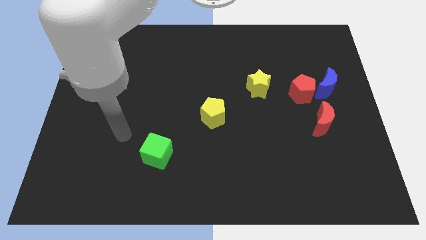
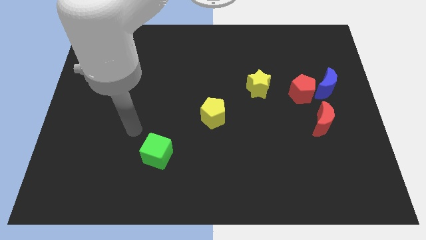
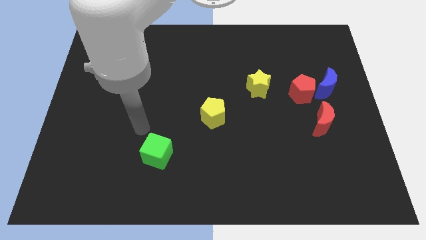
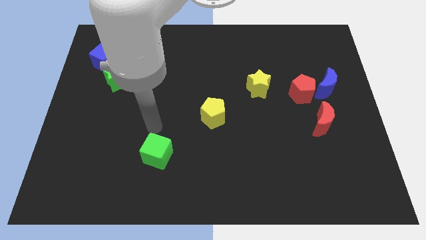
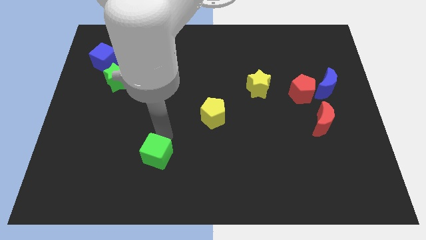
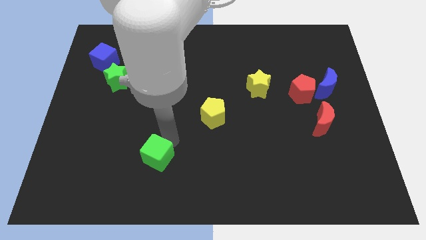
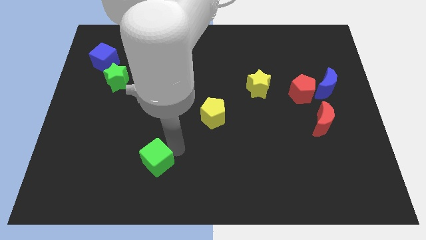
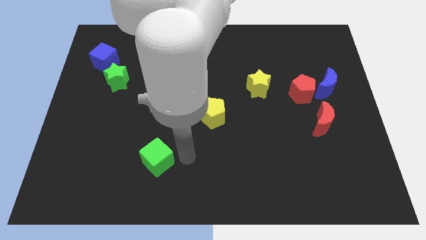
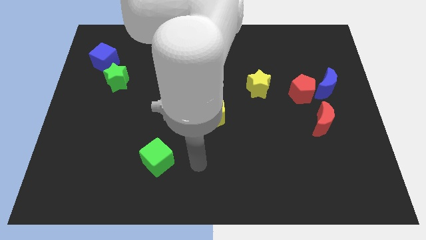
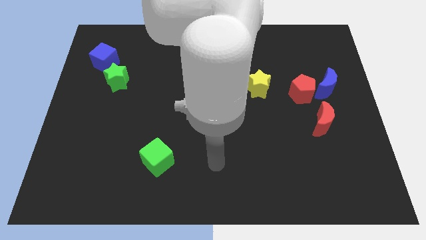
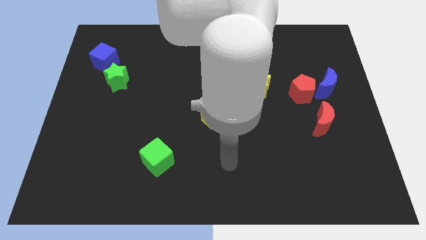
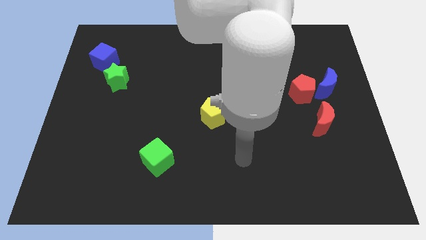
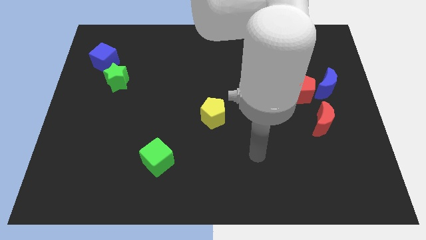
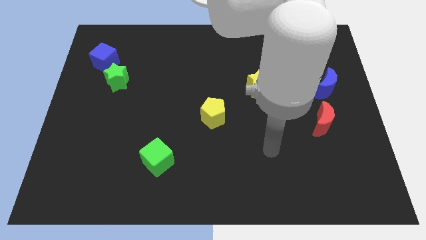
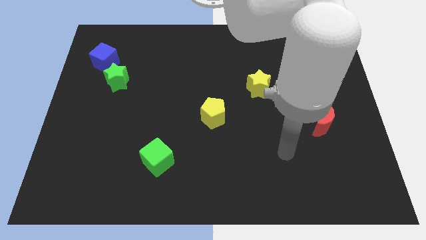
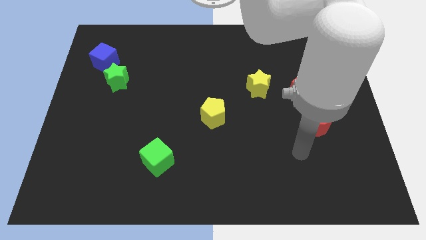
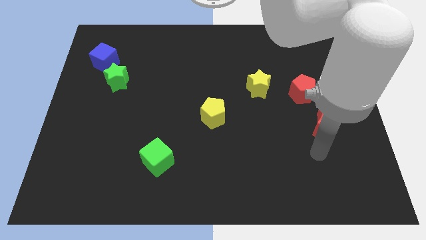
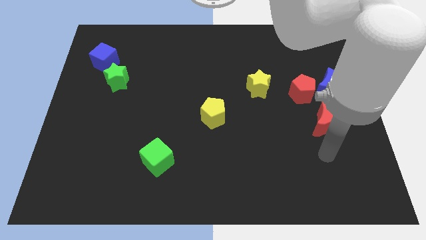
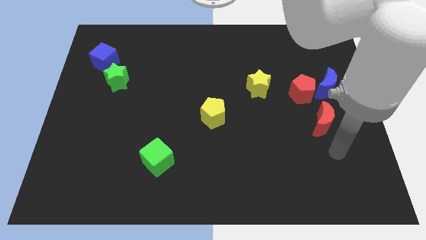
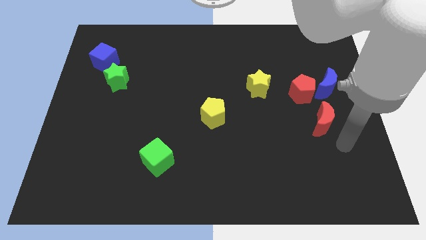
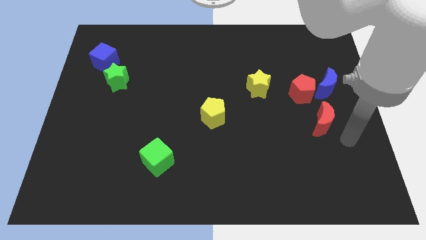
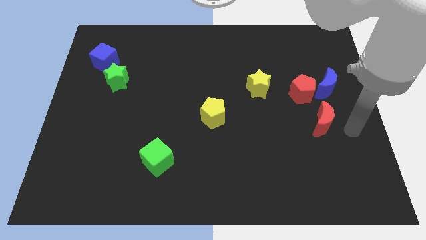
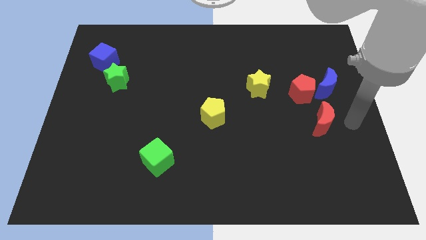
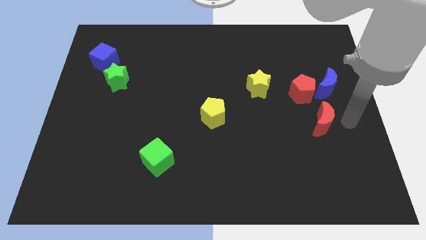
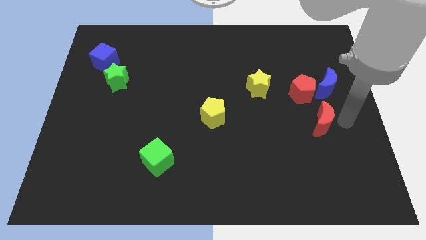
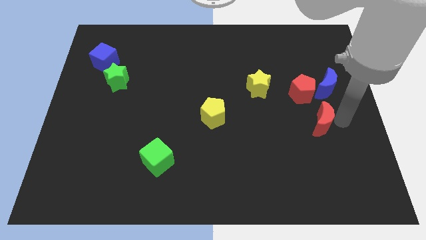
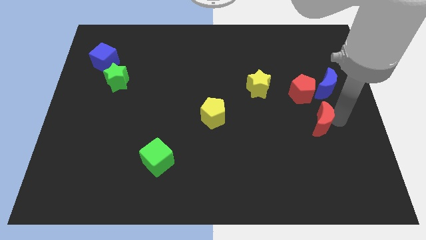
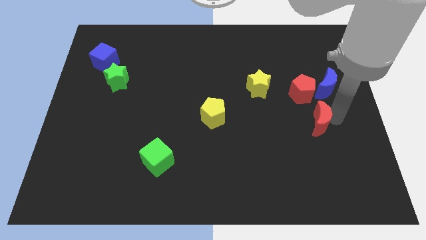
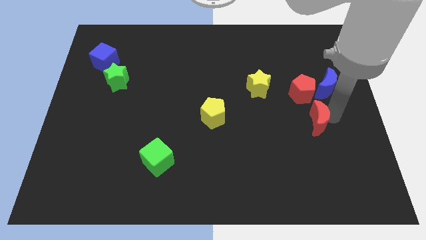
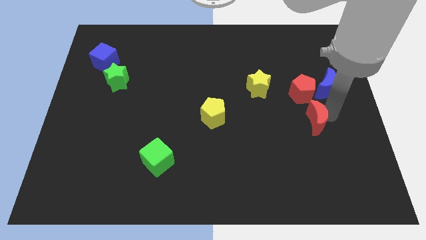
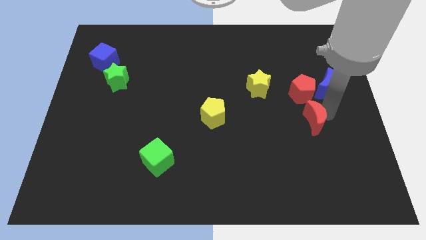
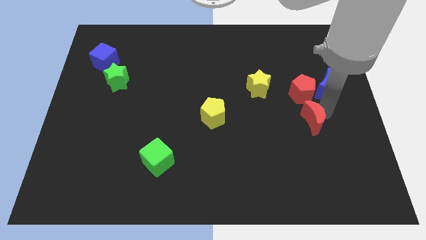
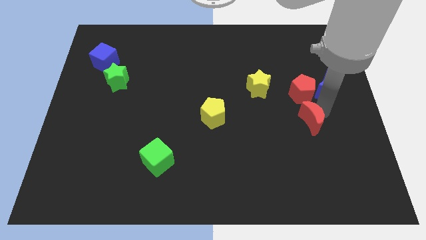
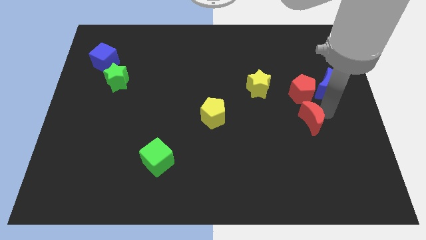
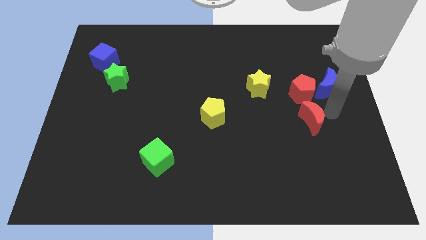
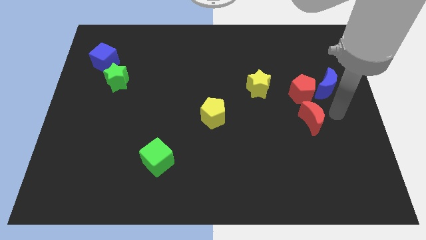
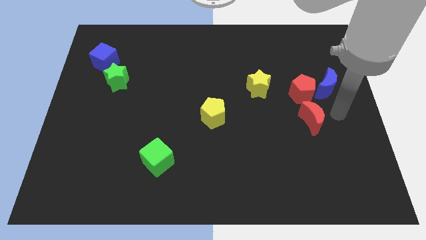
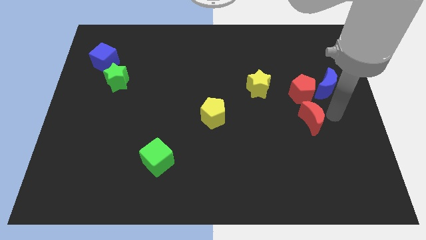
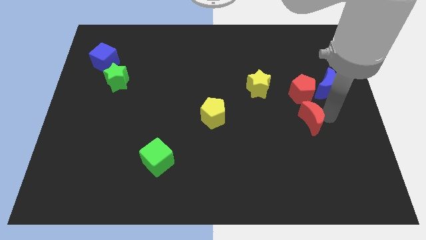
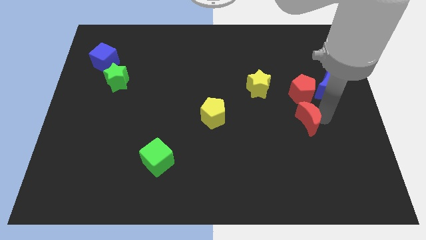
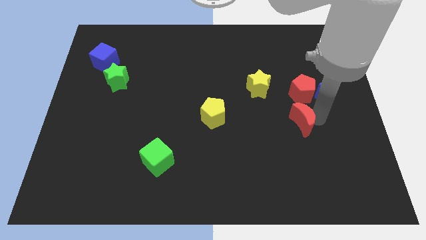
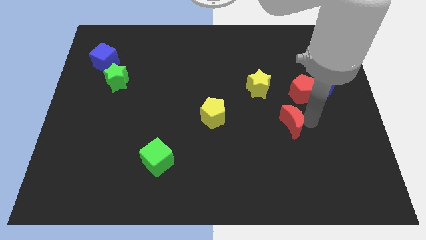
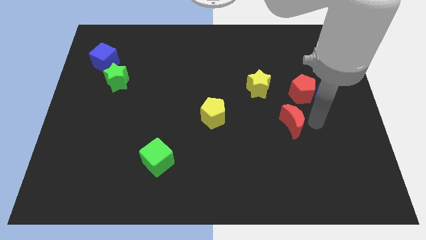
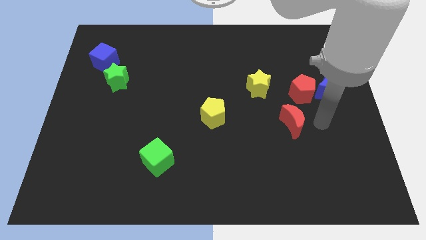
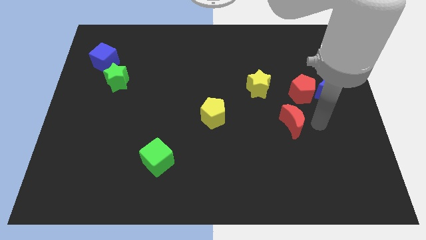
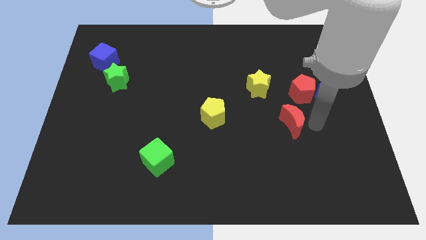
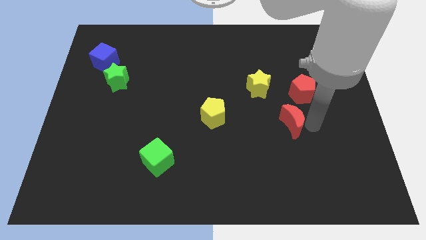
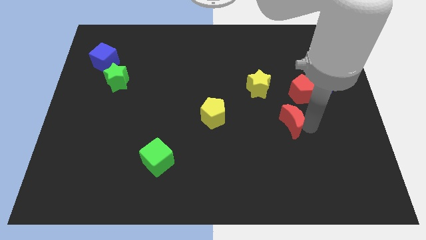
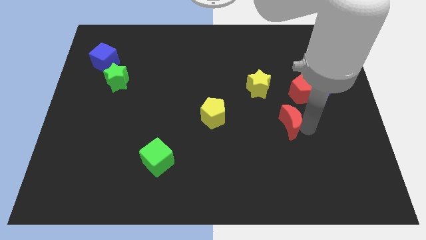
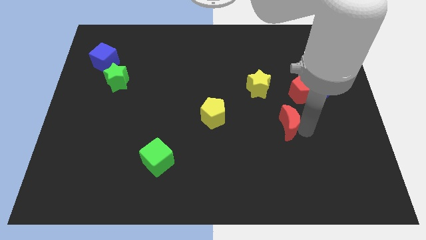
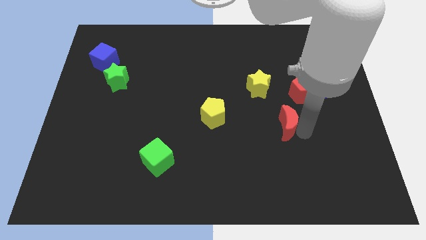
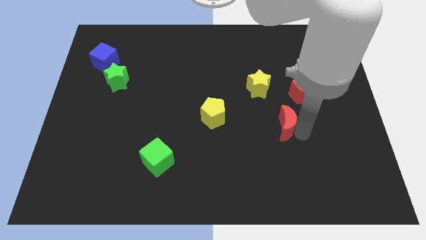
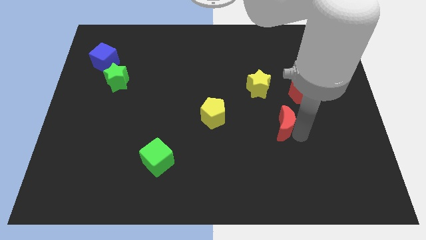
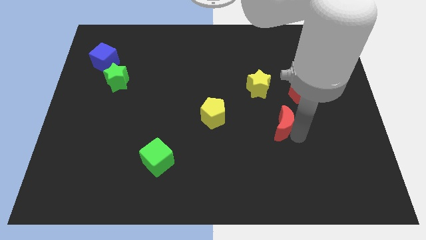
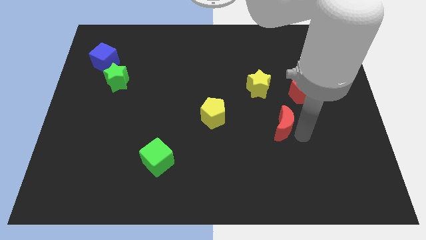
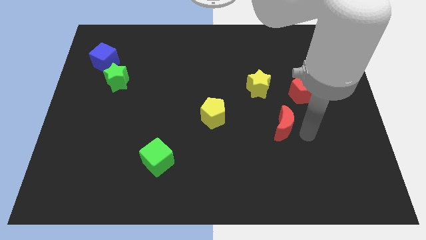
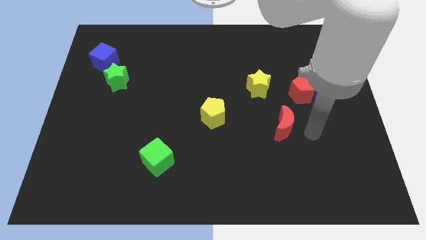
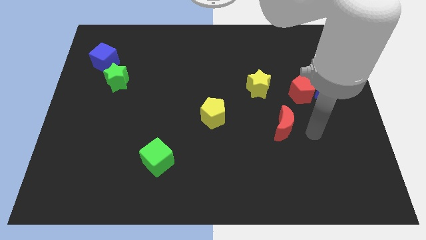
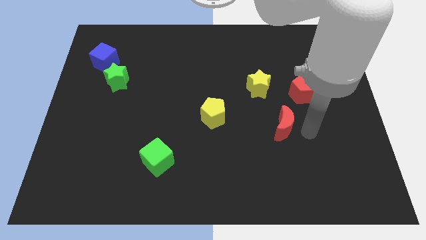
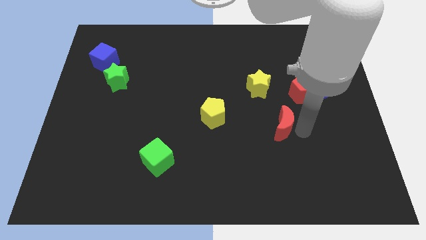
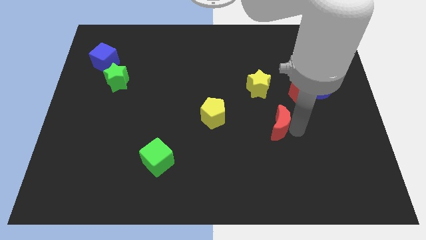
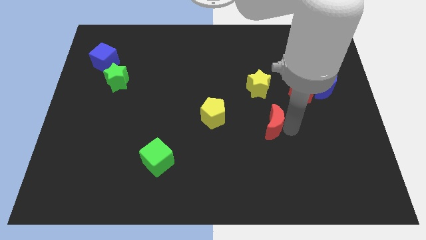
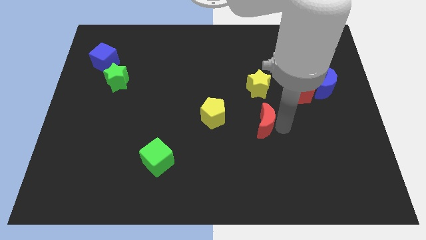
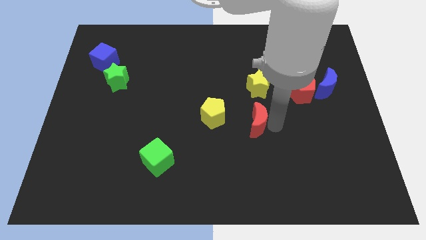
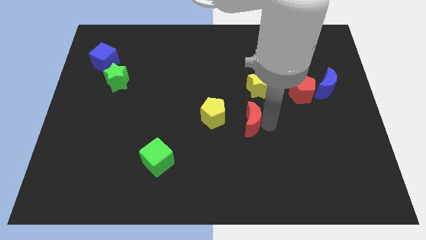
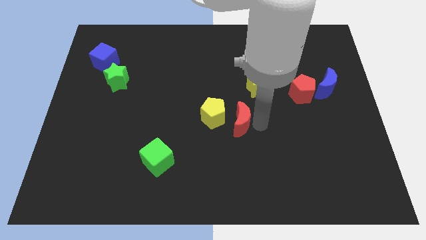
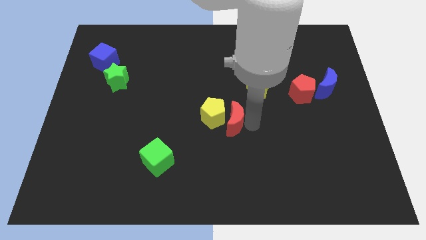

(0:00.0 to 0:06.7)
slide the red moon next to the yellow pentagon

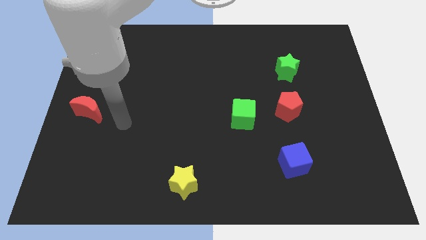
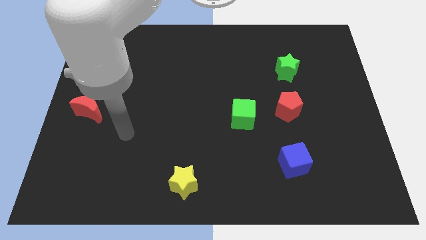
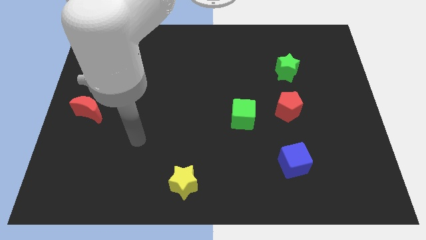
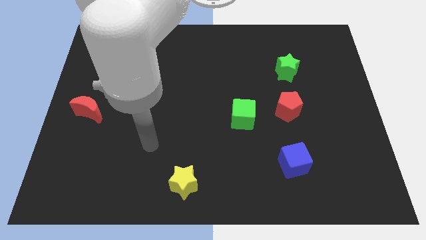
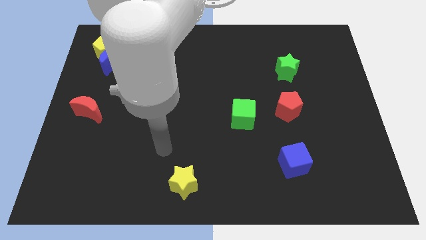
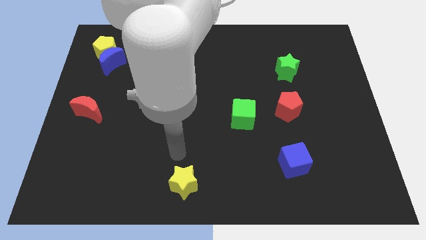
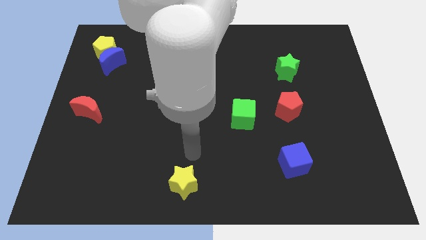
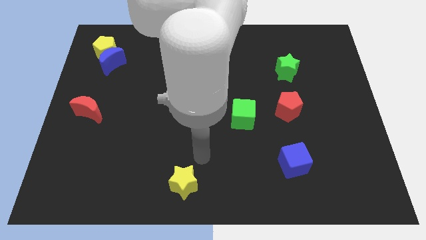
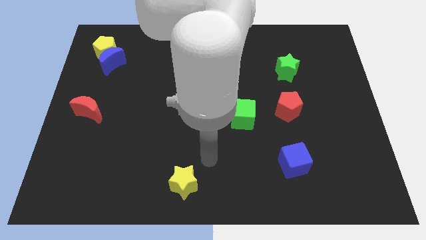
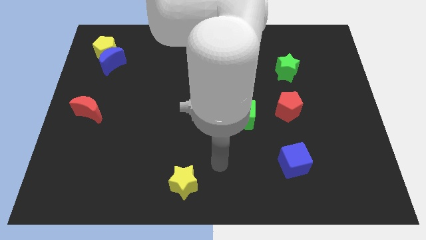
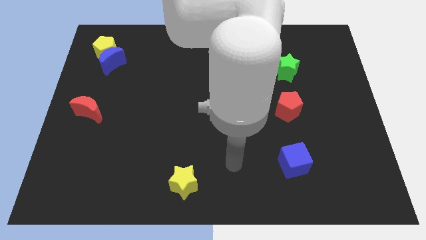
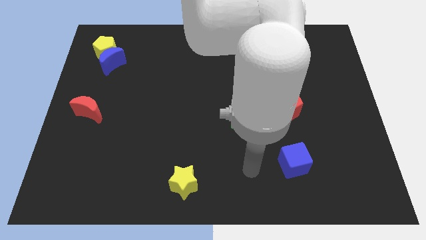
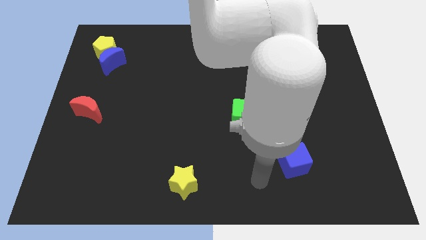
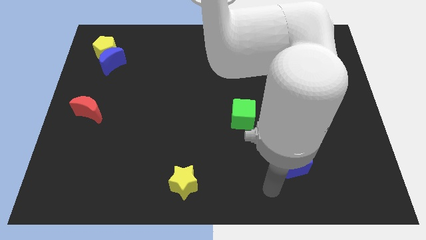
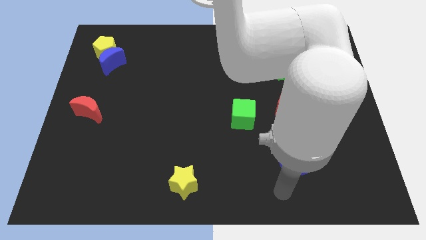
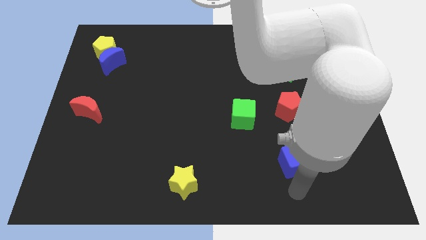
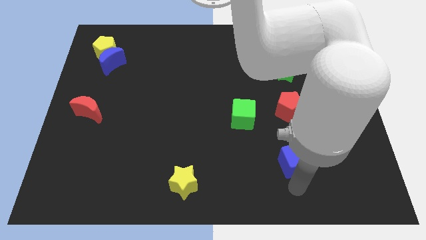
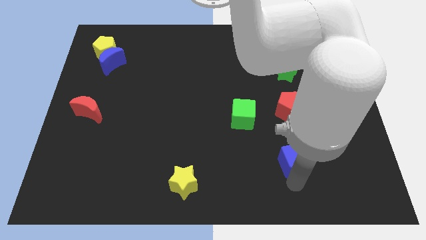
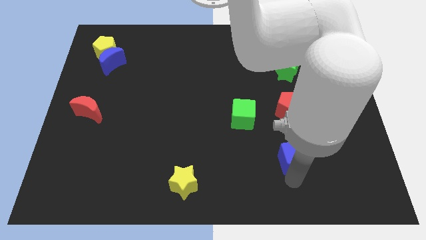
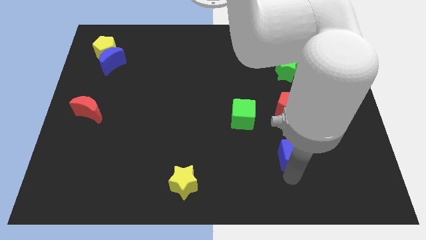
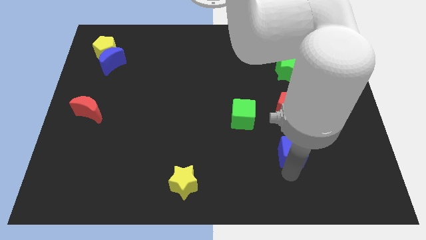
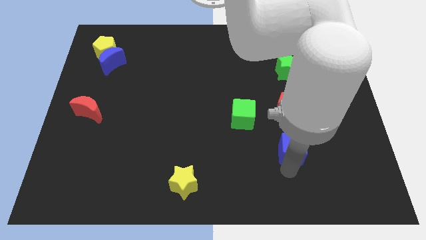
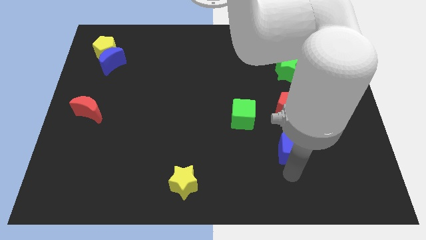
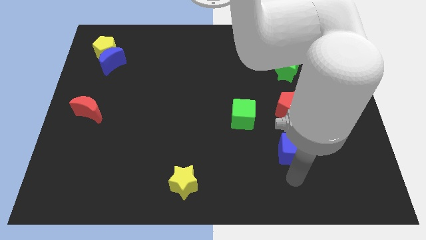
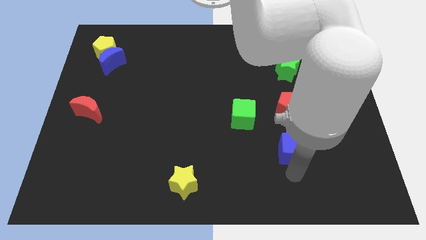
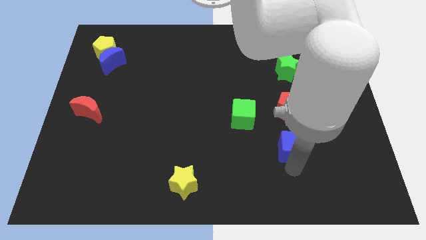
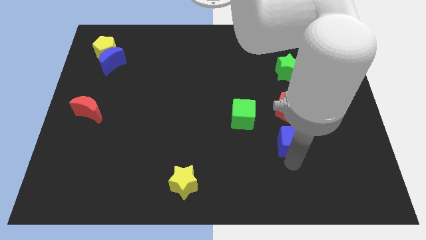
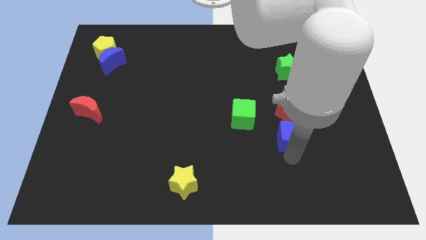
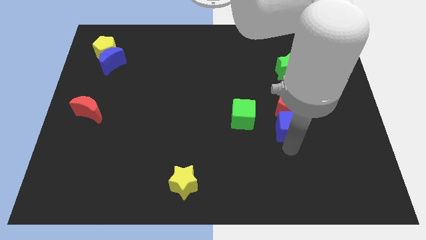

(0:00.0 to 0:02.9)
push the blue cube close to the red pentagon
